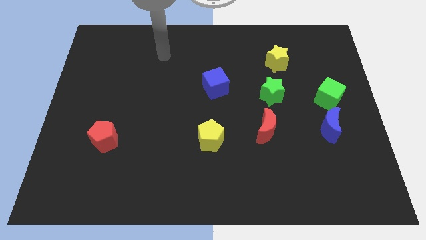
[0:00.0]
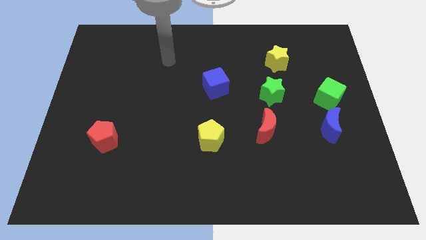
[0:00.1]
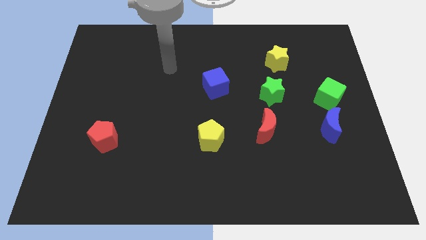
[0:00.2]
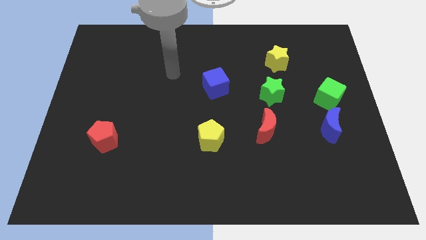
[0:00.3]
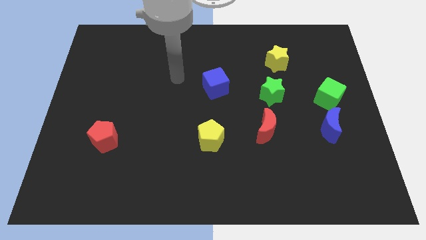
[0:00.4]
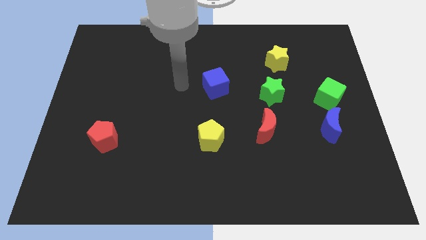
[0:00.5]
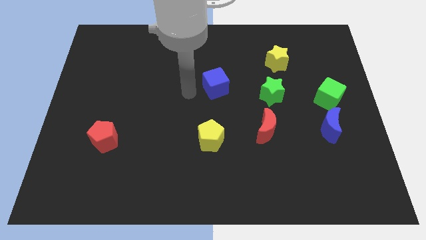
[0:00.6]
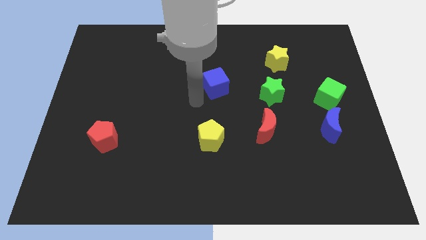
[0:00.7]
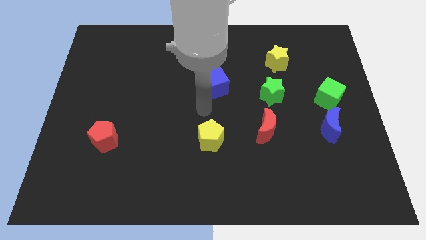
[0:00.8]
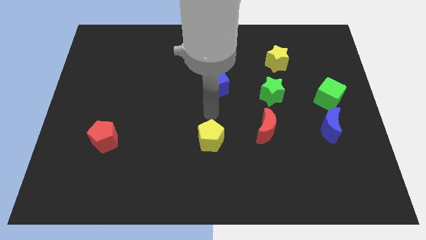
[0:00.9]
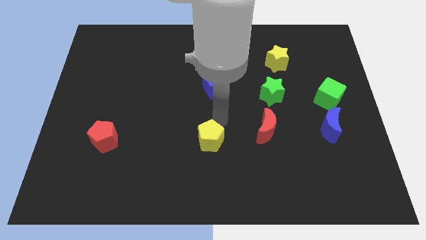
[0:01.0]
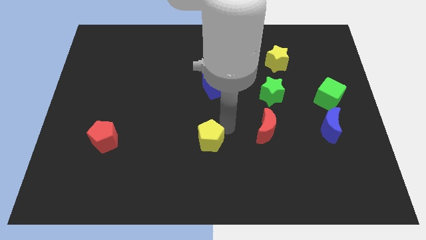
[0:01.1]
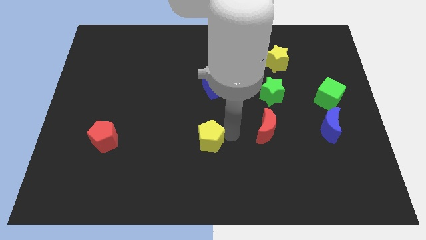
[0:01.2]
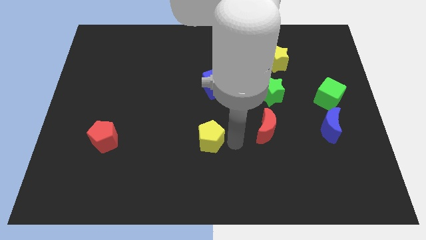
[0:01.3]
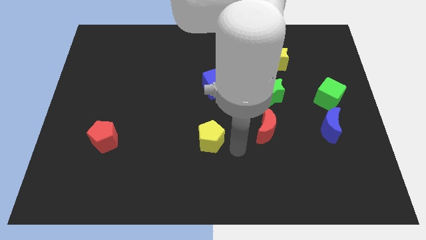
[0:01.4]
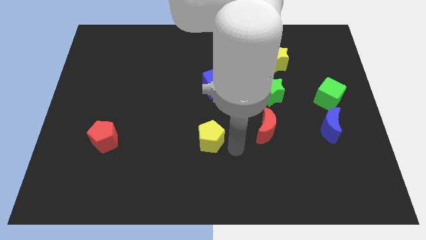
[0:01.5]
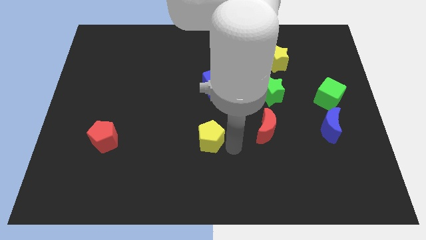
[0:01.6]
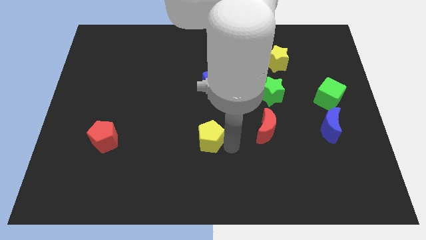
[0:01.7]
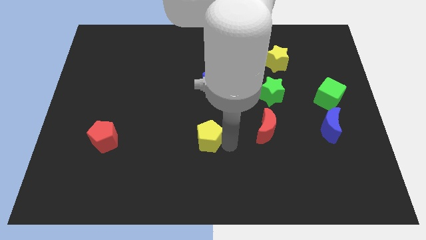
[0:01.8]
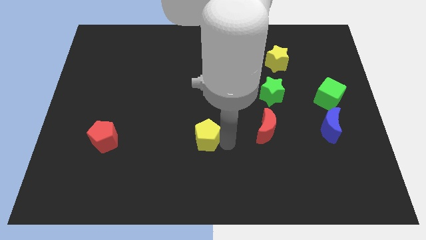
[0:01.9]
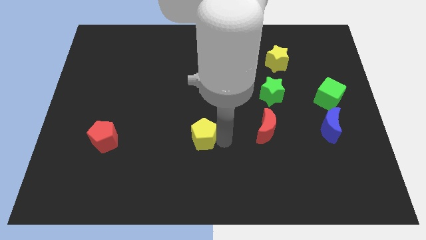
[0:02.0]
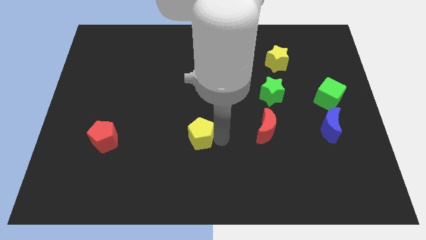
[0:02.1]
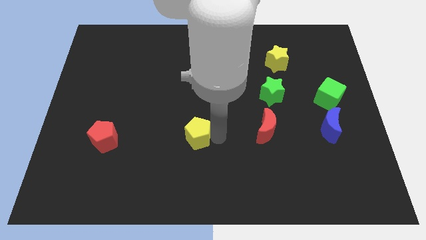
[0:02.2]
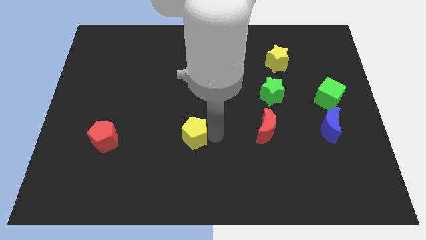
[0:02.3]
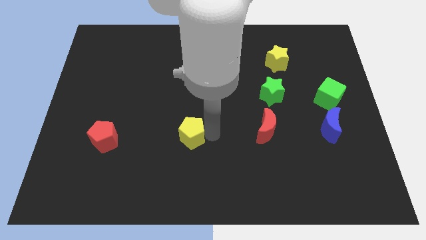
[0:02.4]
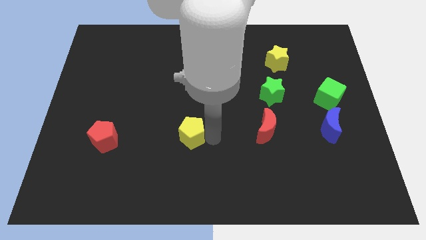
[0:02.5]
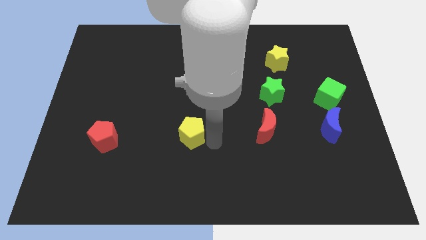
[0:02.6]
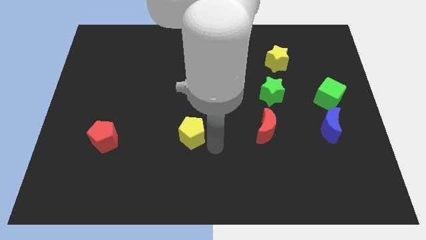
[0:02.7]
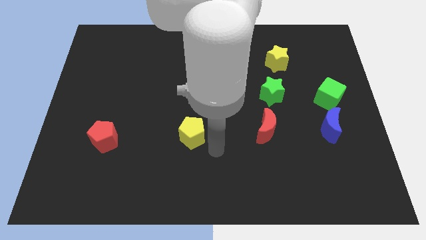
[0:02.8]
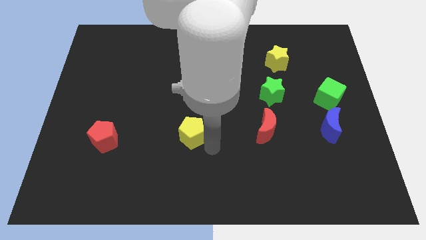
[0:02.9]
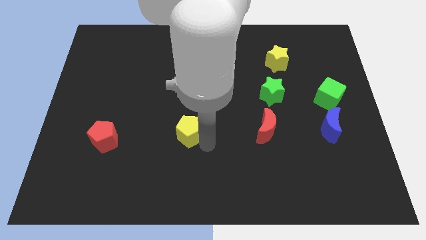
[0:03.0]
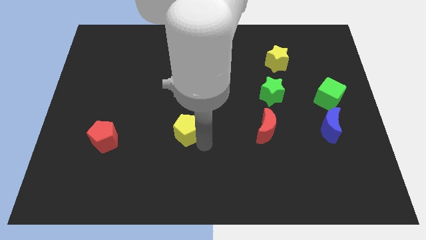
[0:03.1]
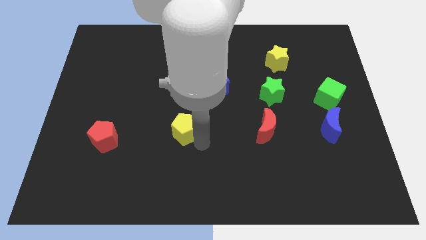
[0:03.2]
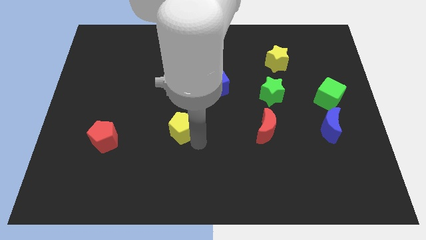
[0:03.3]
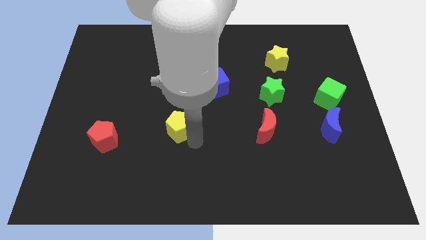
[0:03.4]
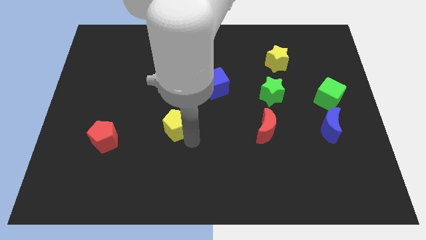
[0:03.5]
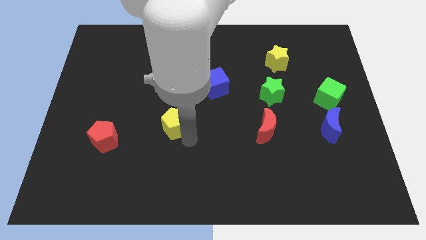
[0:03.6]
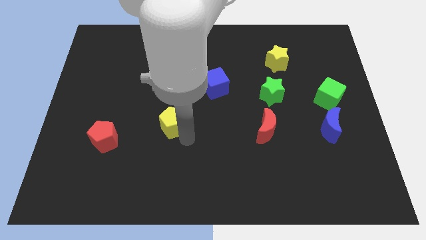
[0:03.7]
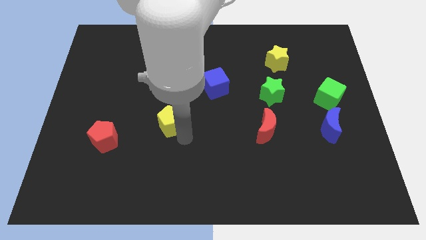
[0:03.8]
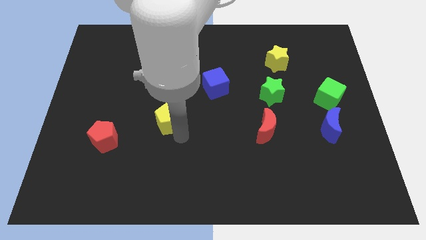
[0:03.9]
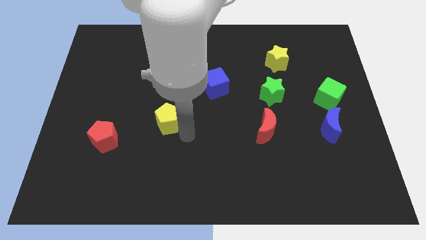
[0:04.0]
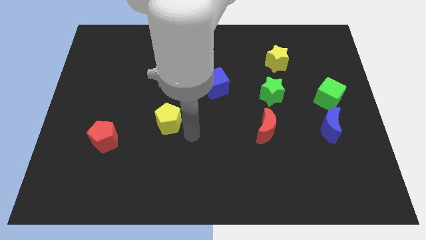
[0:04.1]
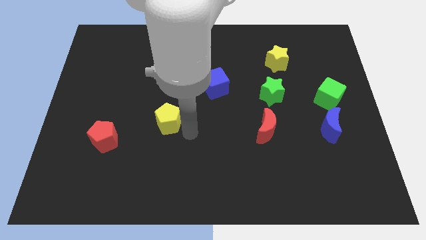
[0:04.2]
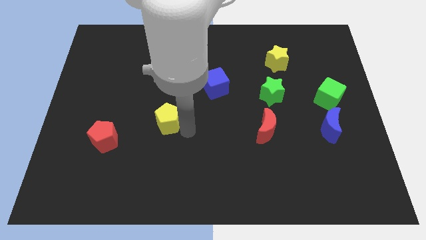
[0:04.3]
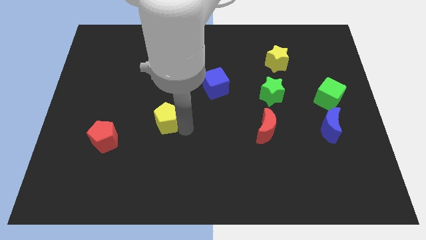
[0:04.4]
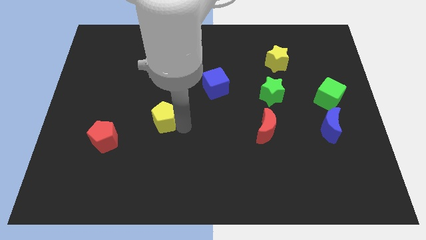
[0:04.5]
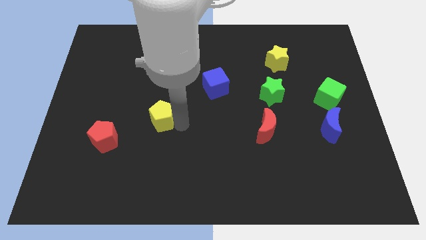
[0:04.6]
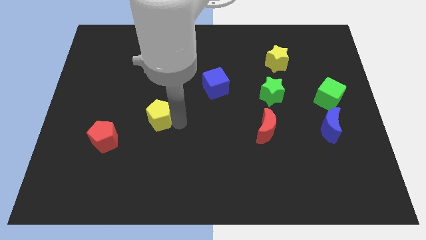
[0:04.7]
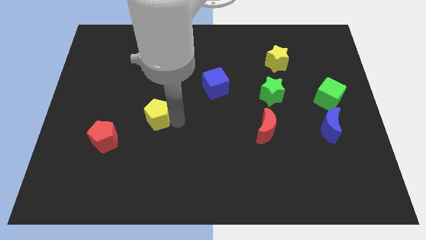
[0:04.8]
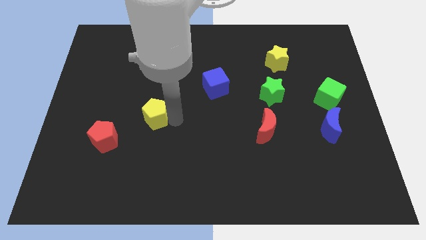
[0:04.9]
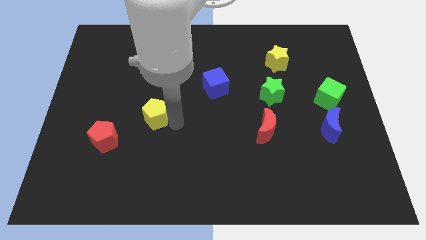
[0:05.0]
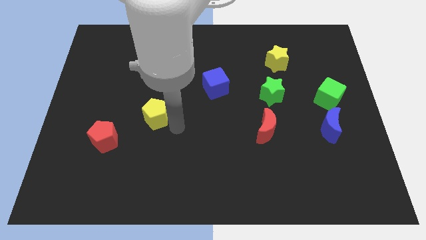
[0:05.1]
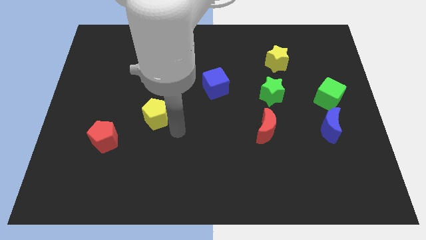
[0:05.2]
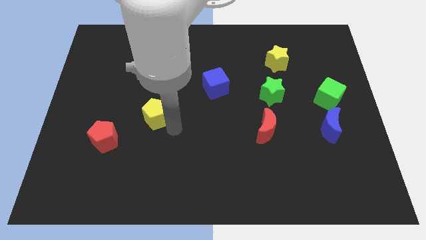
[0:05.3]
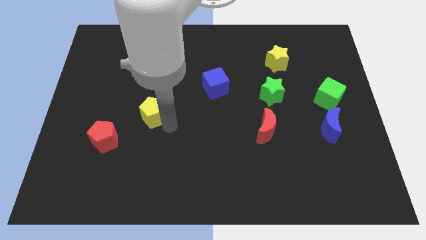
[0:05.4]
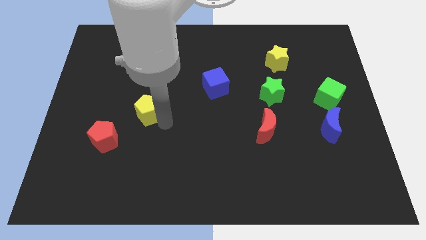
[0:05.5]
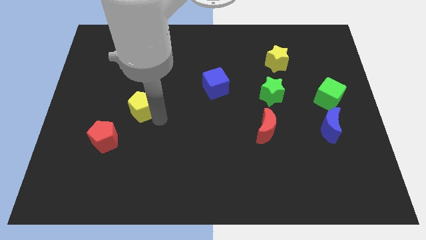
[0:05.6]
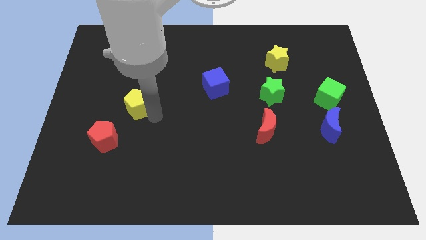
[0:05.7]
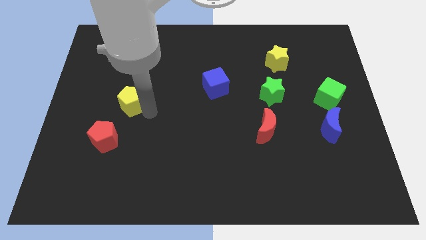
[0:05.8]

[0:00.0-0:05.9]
slide the yellow pentagon to the top side of the red pentagon

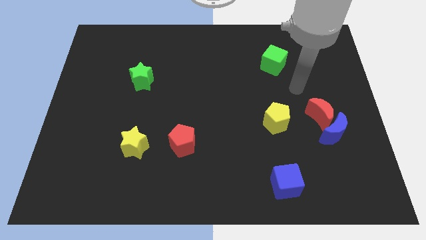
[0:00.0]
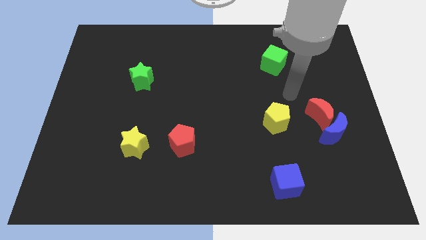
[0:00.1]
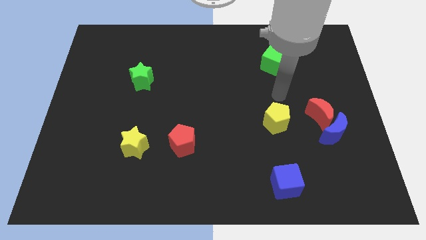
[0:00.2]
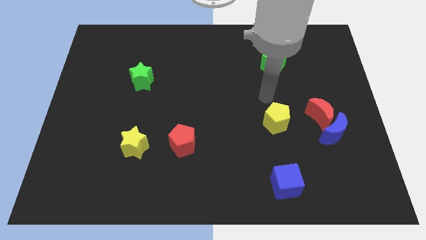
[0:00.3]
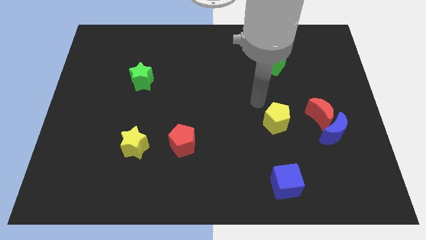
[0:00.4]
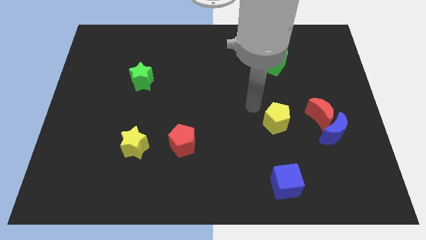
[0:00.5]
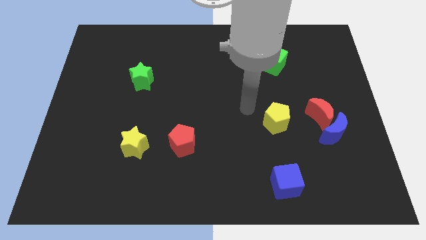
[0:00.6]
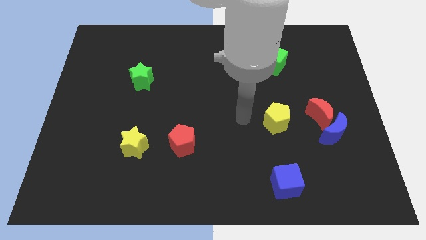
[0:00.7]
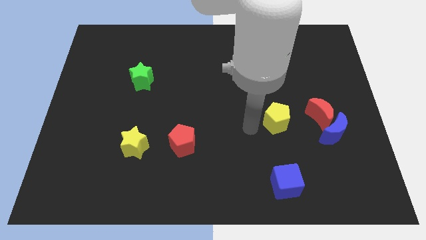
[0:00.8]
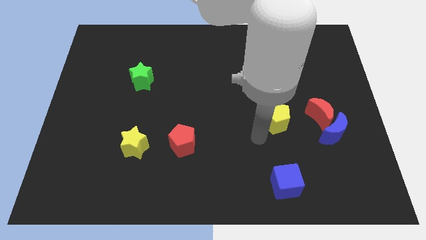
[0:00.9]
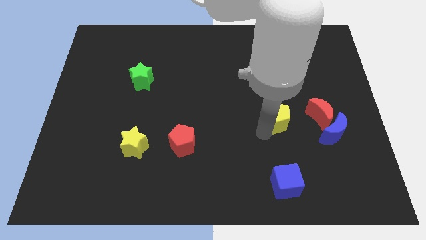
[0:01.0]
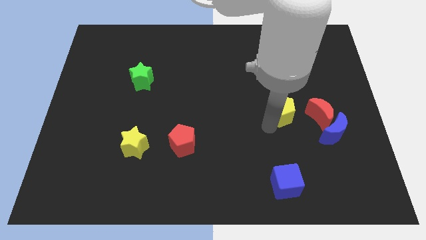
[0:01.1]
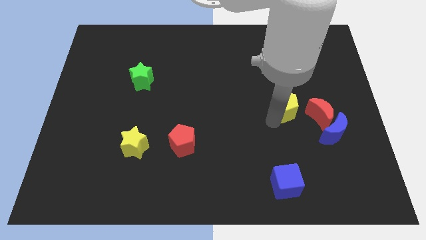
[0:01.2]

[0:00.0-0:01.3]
push the yellow pentagon to the top left side of the red moon

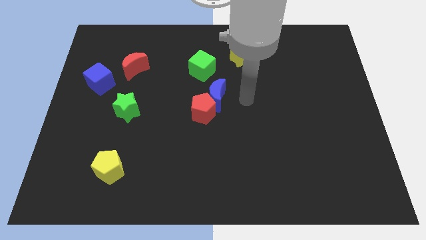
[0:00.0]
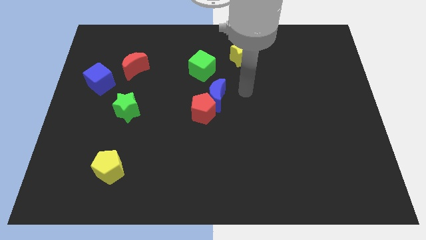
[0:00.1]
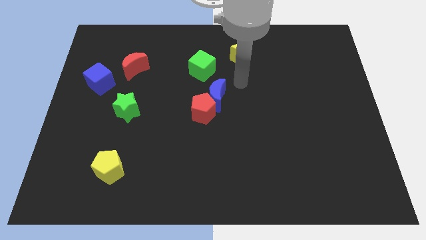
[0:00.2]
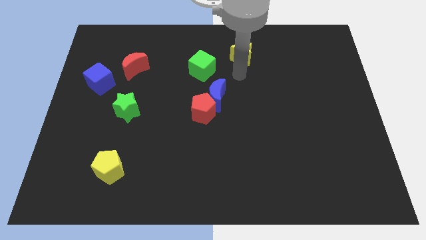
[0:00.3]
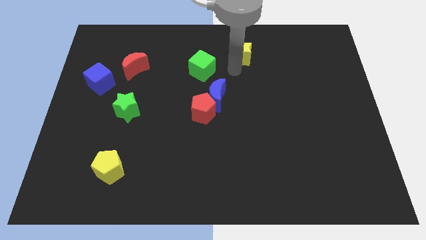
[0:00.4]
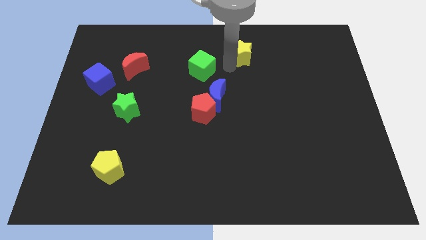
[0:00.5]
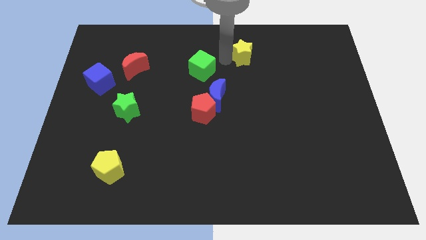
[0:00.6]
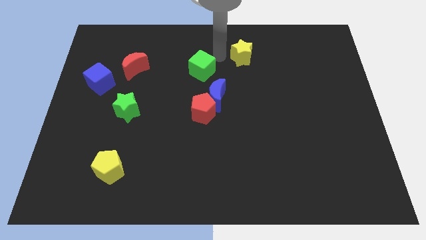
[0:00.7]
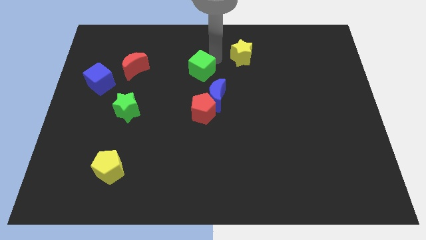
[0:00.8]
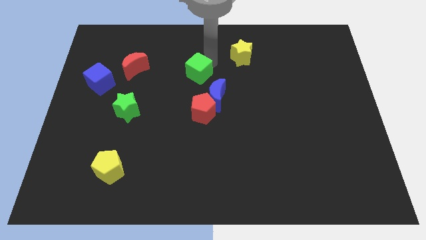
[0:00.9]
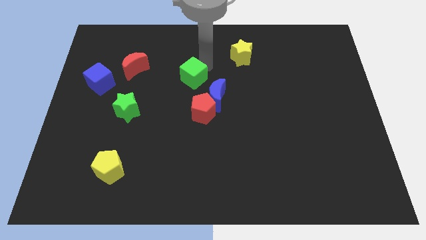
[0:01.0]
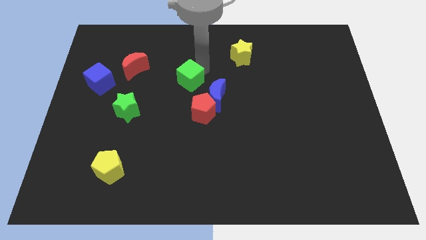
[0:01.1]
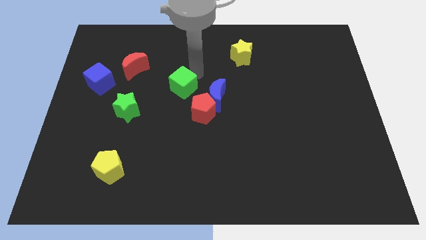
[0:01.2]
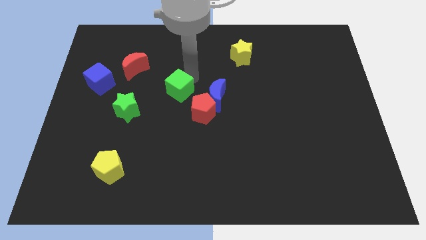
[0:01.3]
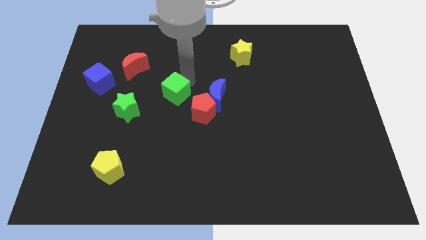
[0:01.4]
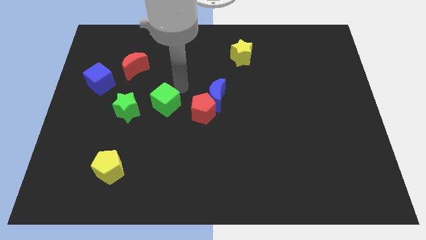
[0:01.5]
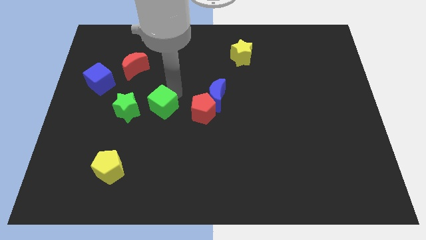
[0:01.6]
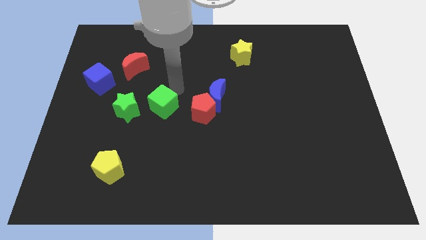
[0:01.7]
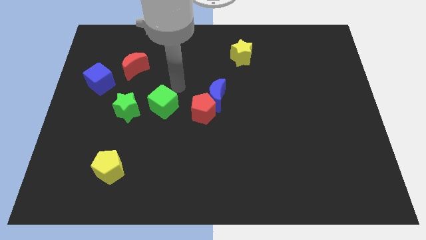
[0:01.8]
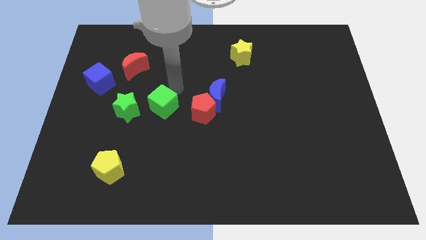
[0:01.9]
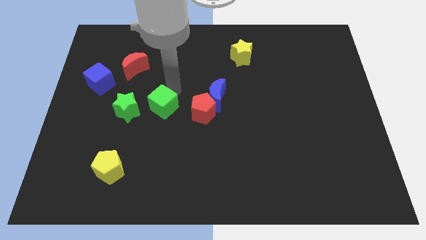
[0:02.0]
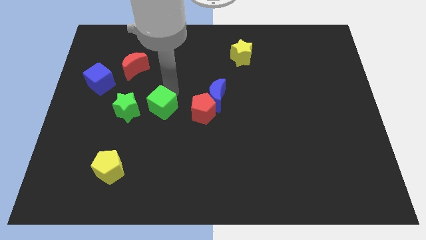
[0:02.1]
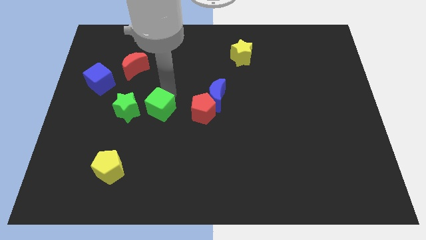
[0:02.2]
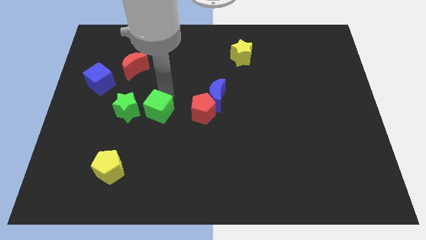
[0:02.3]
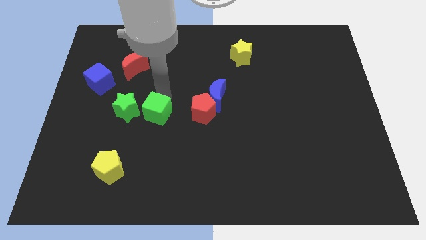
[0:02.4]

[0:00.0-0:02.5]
slide the green cube to the bottom right side of the green star
